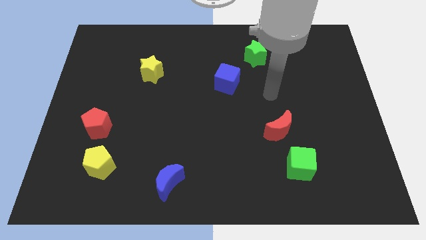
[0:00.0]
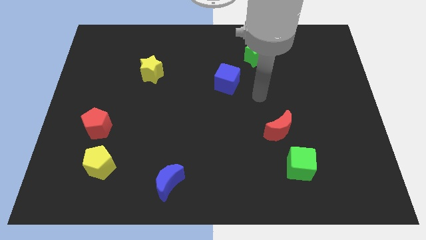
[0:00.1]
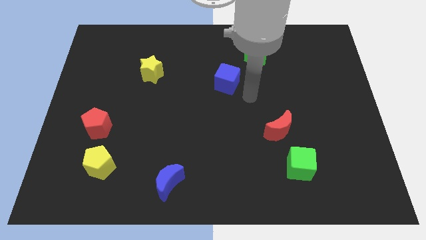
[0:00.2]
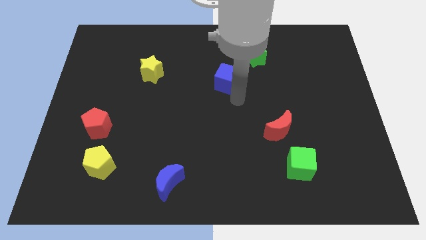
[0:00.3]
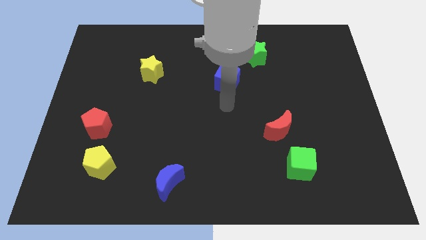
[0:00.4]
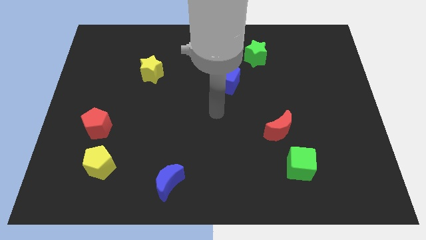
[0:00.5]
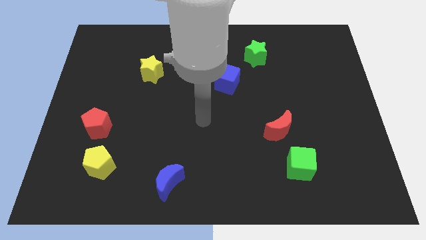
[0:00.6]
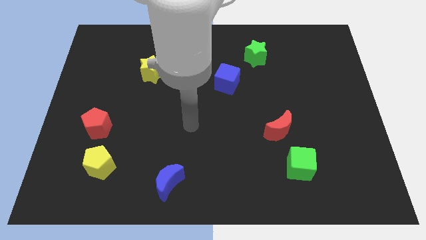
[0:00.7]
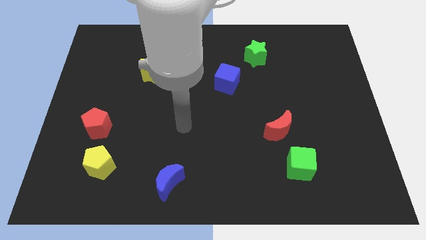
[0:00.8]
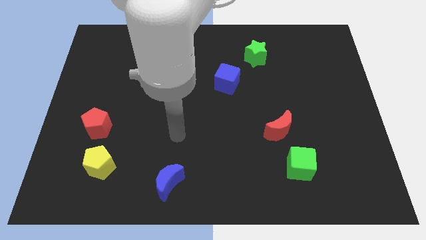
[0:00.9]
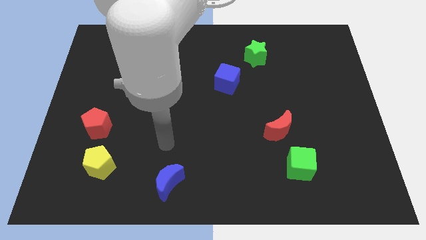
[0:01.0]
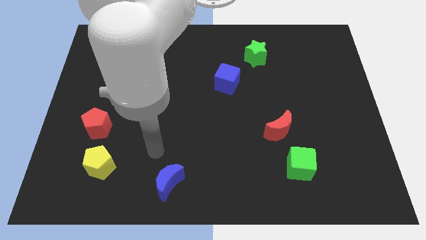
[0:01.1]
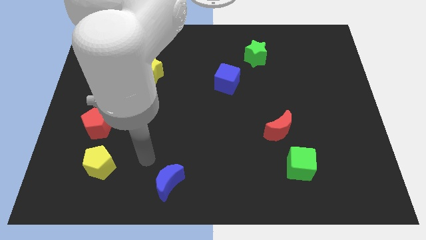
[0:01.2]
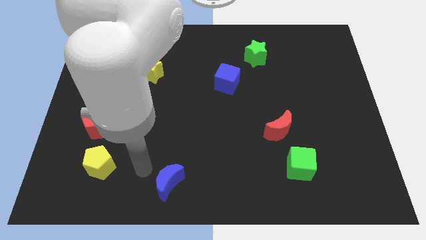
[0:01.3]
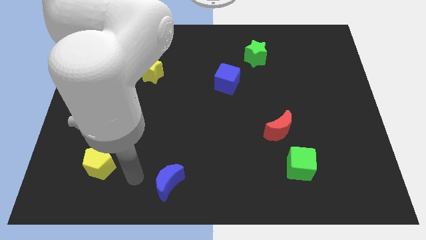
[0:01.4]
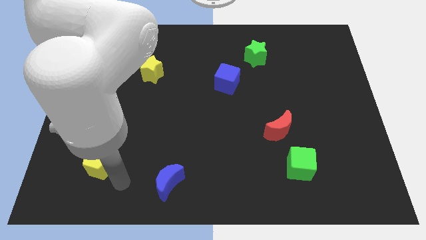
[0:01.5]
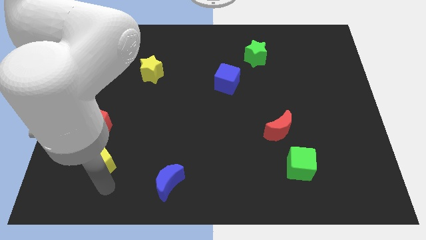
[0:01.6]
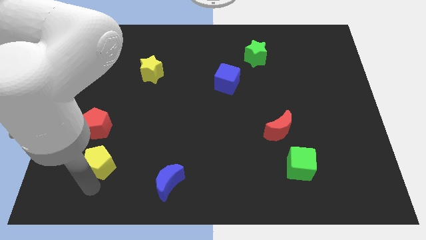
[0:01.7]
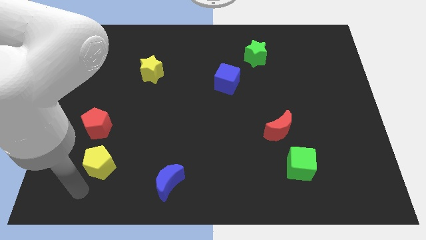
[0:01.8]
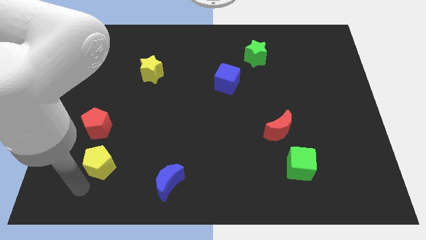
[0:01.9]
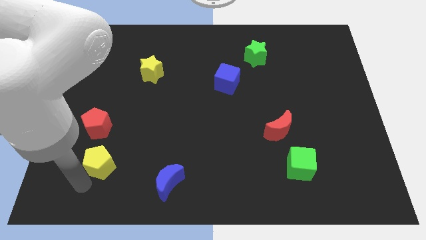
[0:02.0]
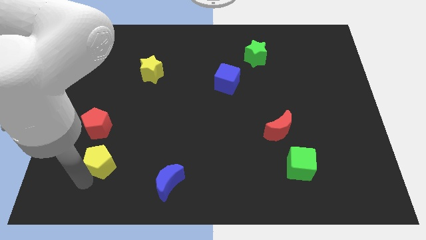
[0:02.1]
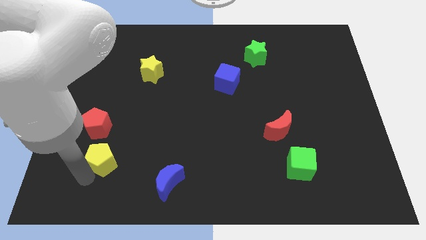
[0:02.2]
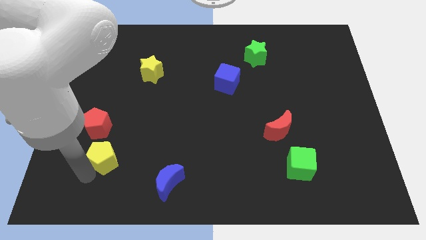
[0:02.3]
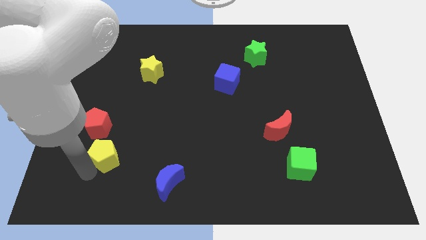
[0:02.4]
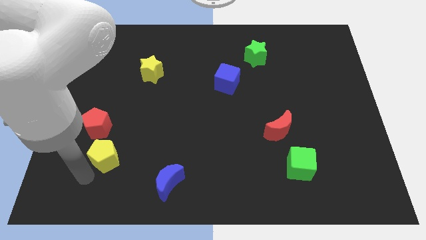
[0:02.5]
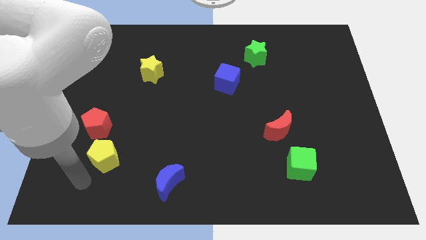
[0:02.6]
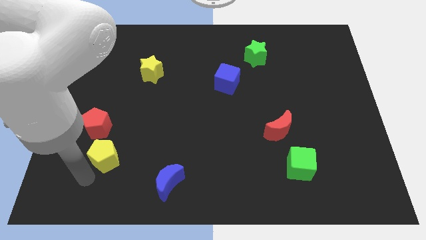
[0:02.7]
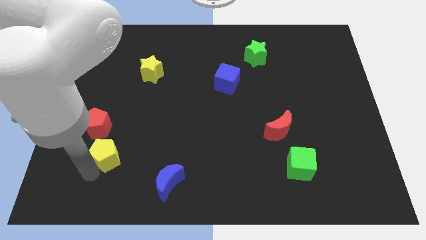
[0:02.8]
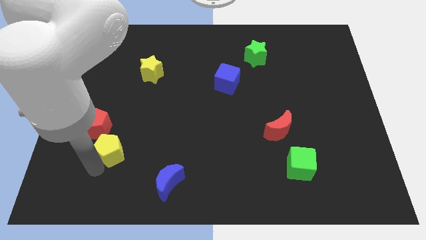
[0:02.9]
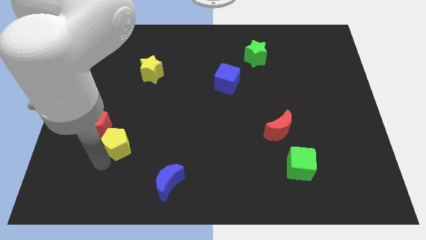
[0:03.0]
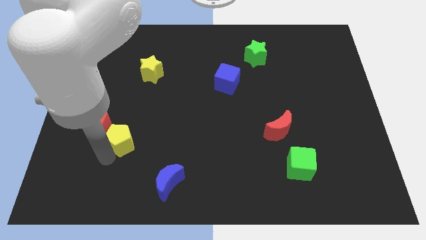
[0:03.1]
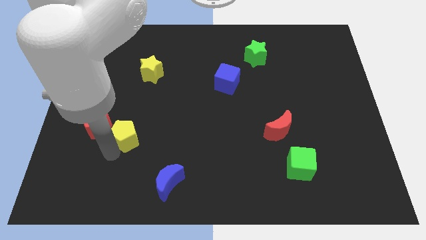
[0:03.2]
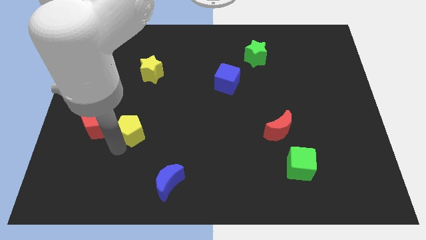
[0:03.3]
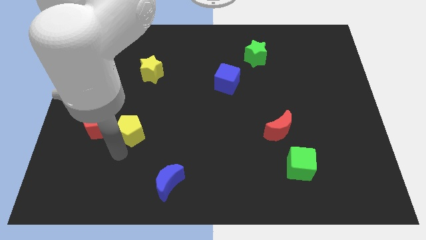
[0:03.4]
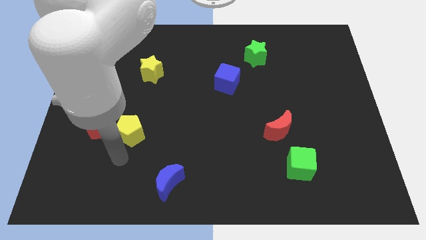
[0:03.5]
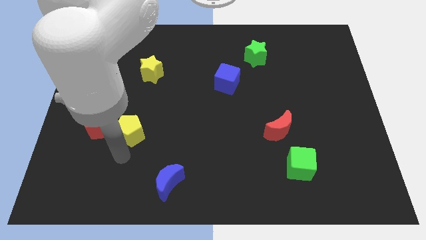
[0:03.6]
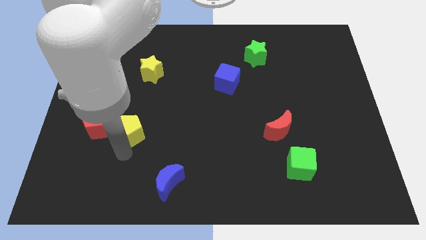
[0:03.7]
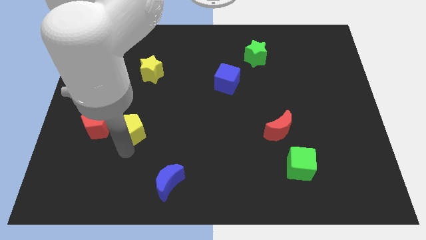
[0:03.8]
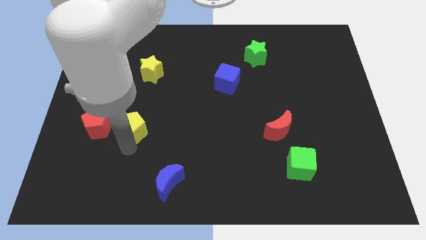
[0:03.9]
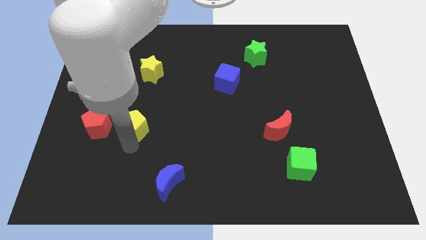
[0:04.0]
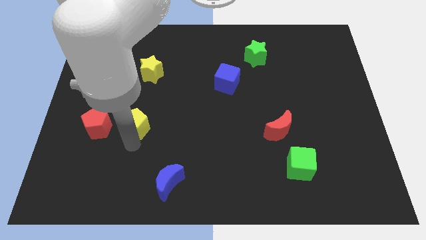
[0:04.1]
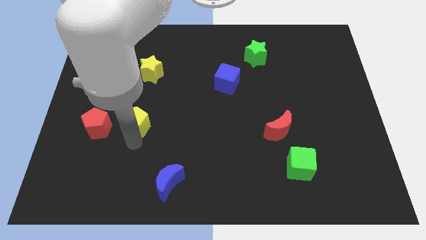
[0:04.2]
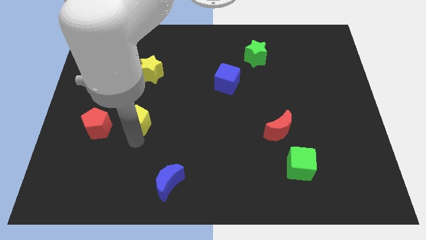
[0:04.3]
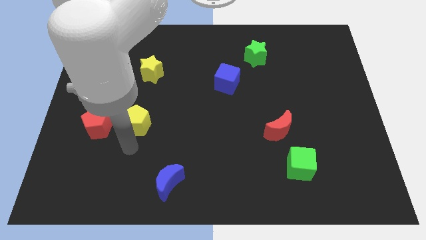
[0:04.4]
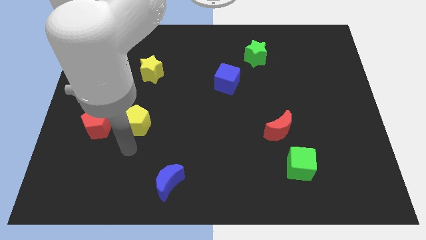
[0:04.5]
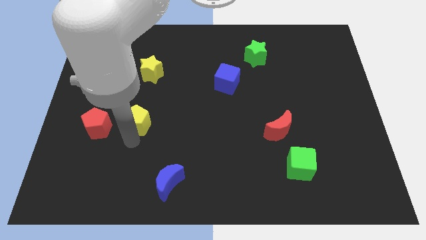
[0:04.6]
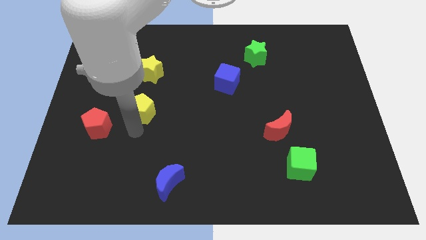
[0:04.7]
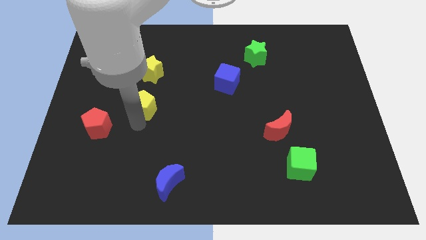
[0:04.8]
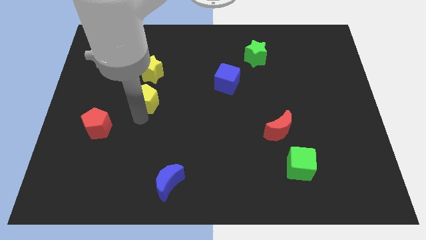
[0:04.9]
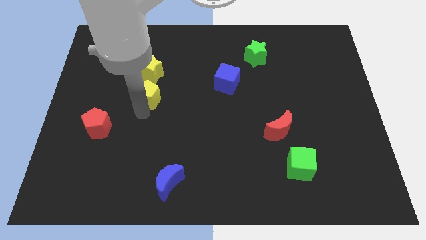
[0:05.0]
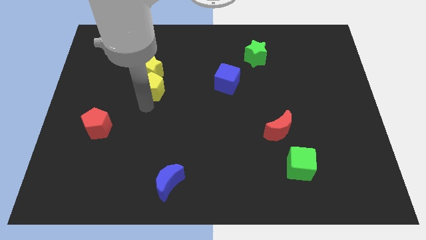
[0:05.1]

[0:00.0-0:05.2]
push the yellow pentagon towards the yellow star

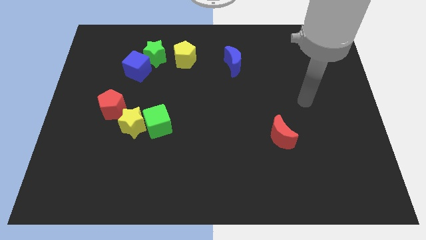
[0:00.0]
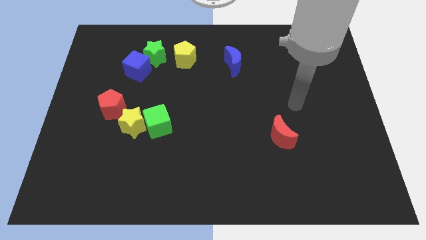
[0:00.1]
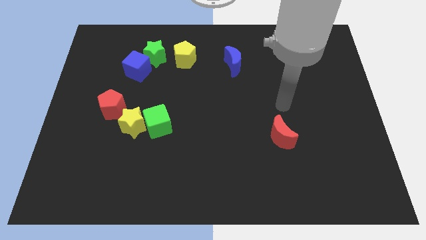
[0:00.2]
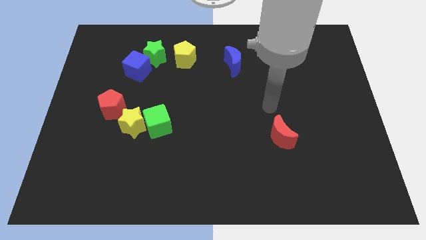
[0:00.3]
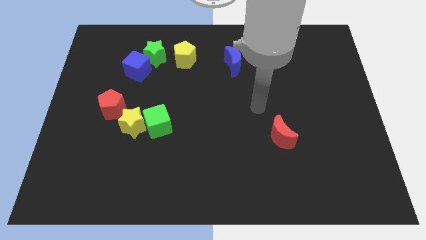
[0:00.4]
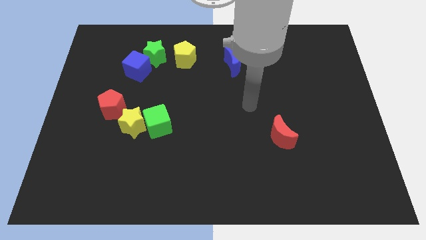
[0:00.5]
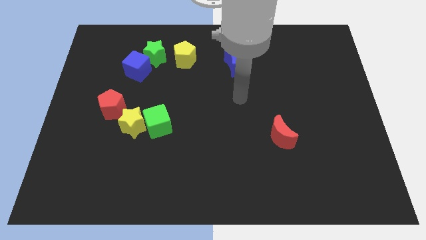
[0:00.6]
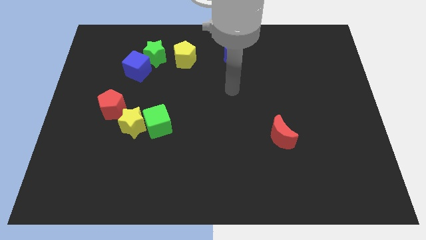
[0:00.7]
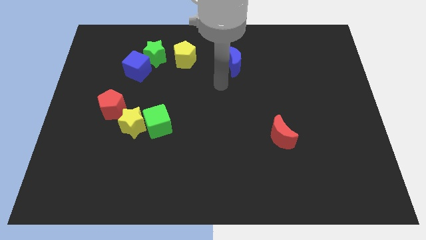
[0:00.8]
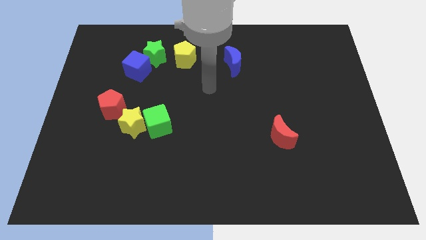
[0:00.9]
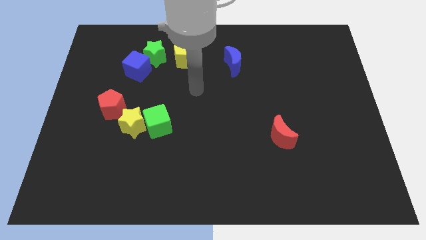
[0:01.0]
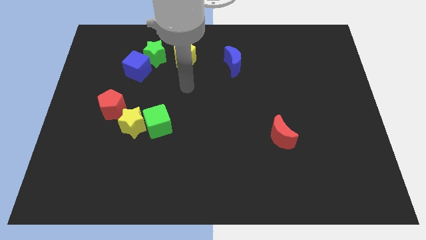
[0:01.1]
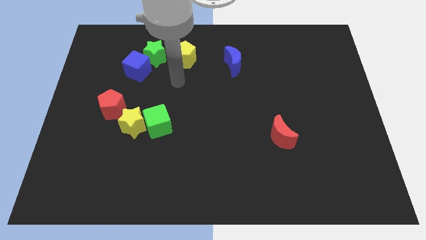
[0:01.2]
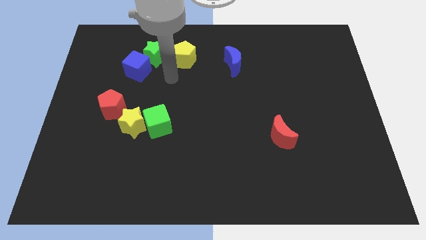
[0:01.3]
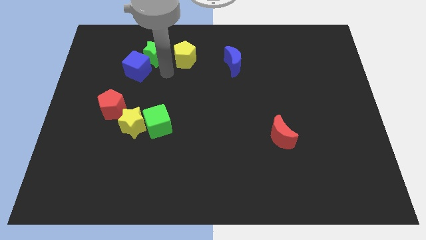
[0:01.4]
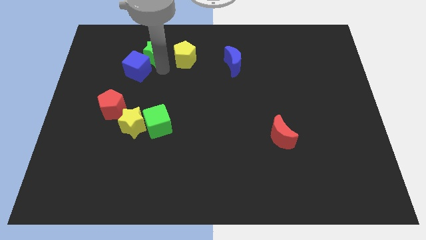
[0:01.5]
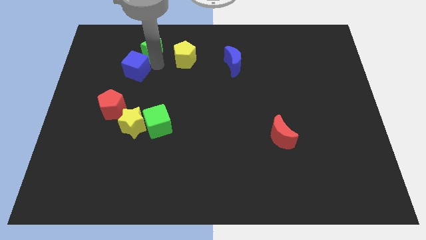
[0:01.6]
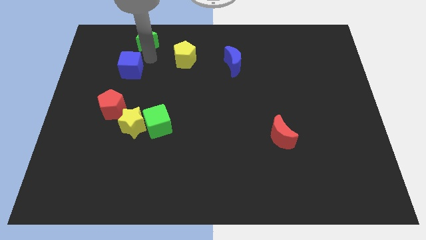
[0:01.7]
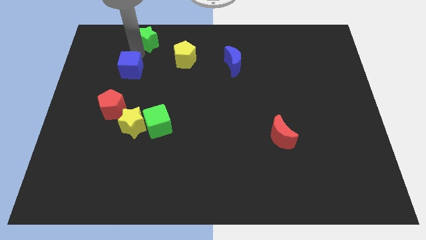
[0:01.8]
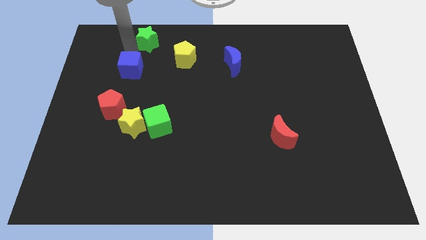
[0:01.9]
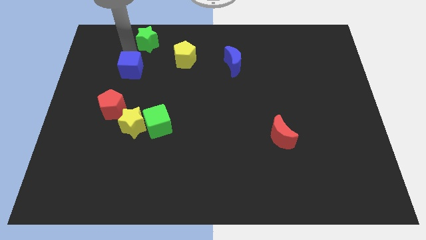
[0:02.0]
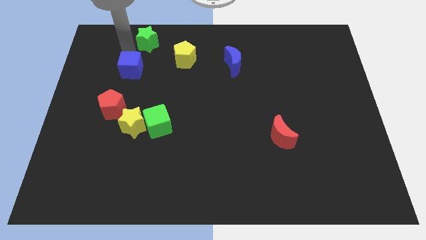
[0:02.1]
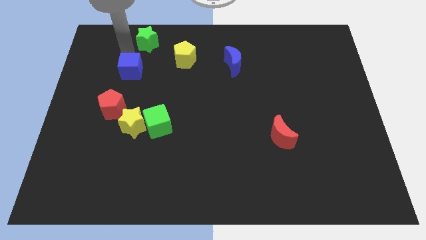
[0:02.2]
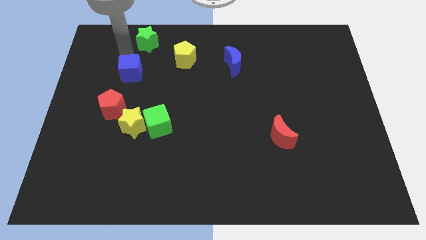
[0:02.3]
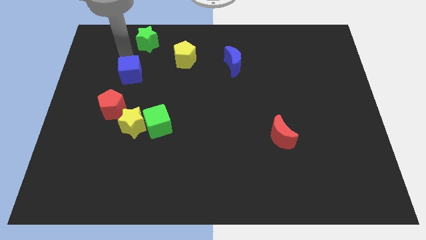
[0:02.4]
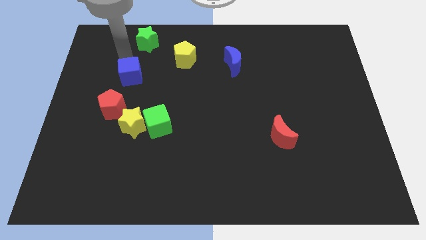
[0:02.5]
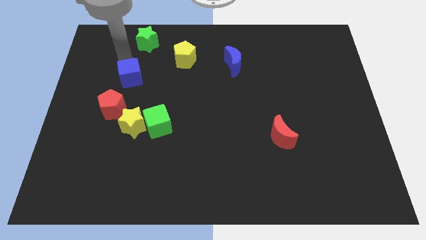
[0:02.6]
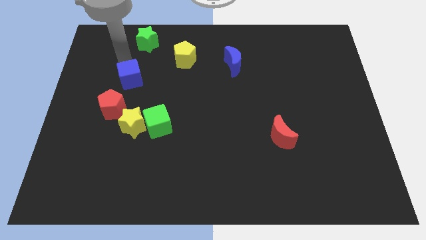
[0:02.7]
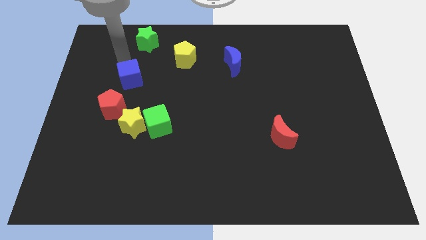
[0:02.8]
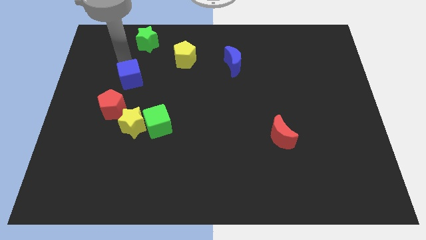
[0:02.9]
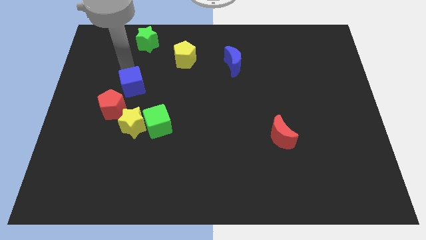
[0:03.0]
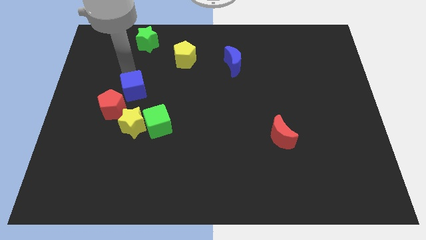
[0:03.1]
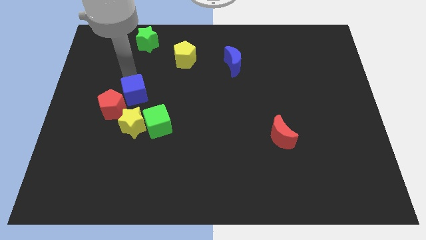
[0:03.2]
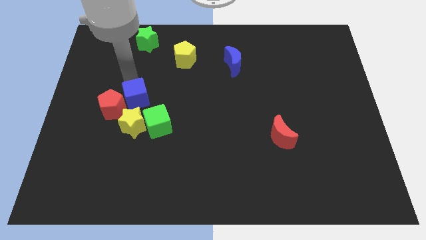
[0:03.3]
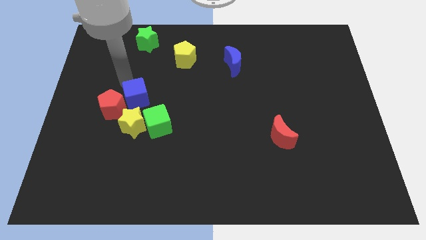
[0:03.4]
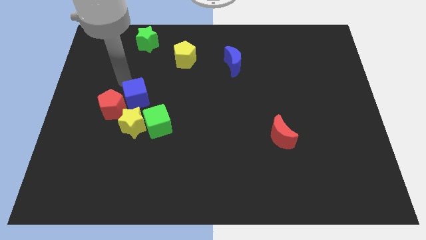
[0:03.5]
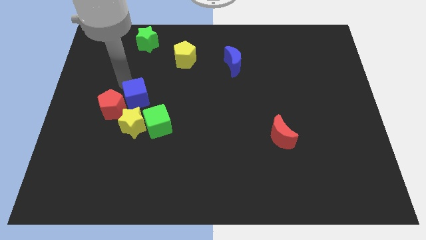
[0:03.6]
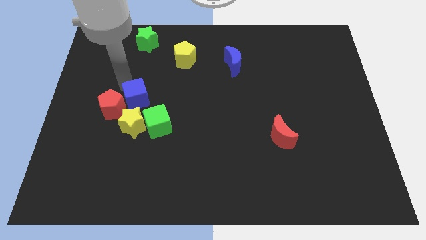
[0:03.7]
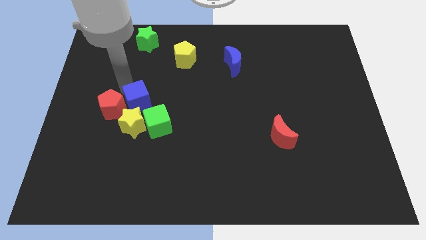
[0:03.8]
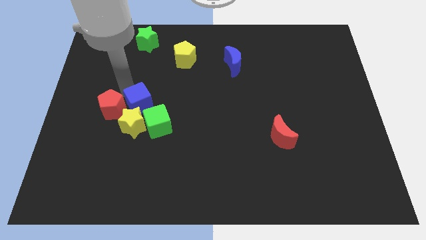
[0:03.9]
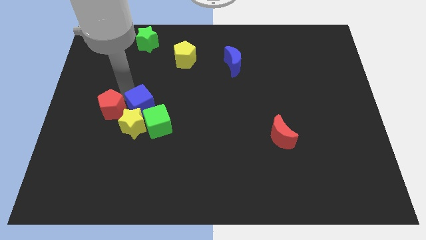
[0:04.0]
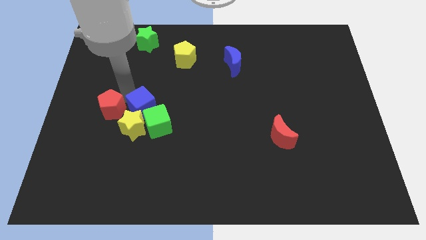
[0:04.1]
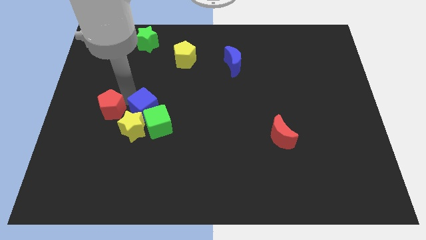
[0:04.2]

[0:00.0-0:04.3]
slide the blue cube close to the green cube
